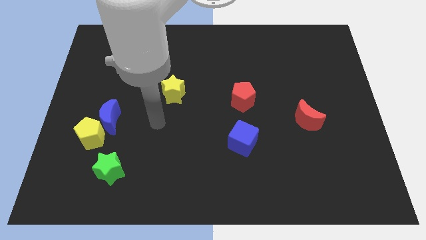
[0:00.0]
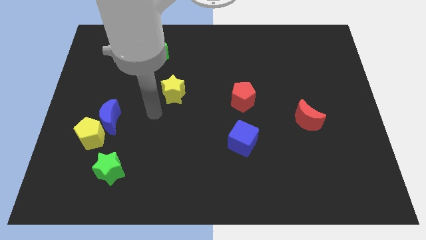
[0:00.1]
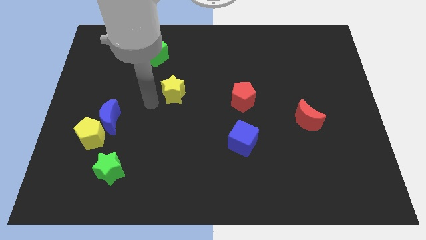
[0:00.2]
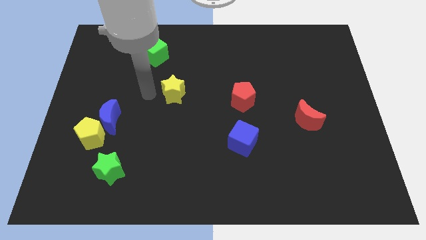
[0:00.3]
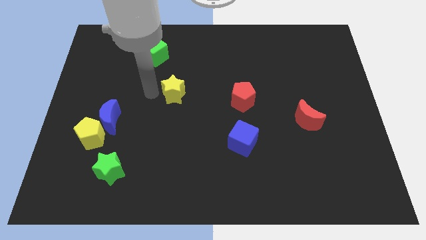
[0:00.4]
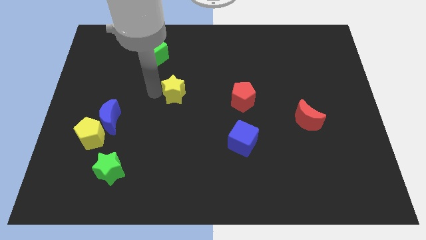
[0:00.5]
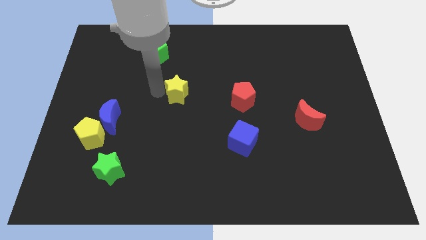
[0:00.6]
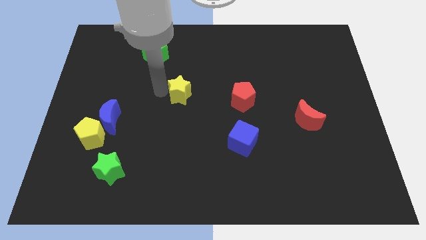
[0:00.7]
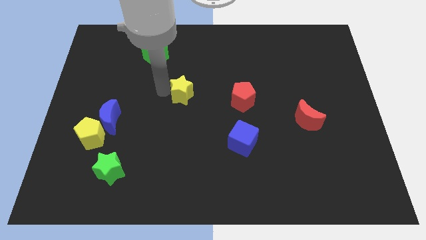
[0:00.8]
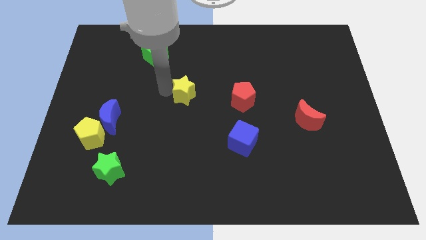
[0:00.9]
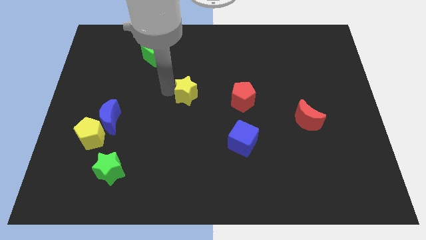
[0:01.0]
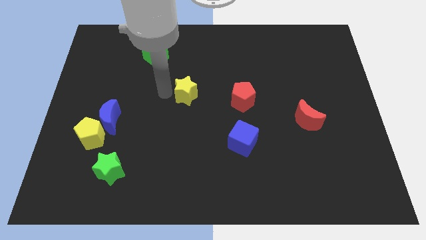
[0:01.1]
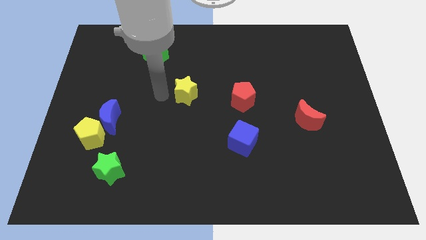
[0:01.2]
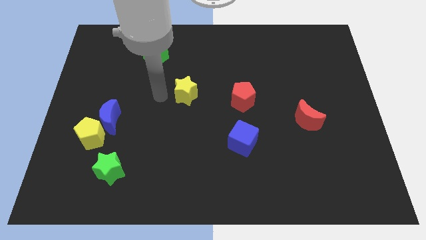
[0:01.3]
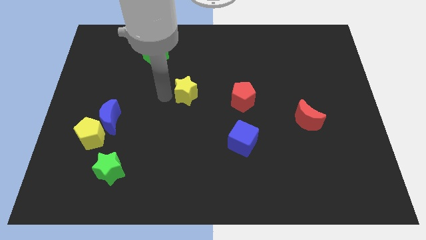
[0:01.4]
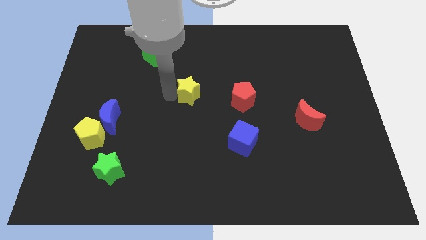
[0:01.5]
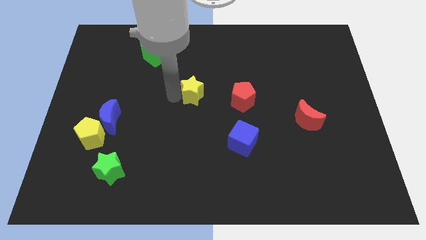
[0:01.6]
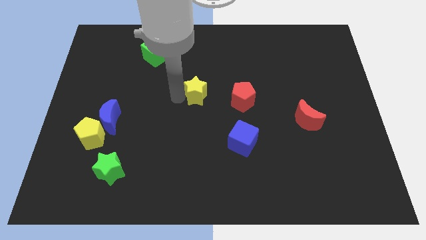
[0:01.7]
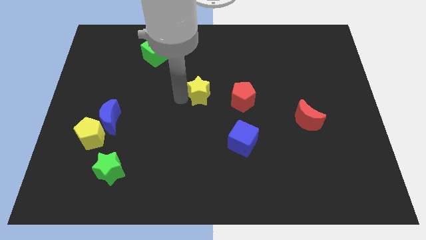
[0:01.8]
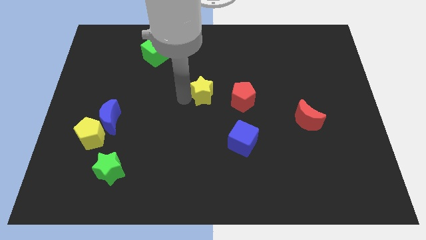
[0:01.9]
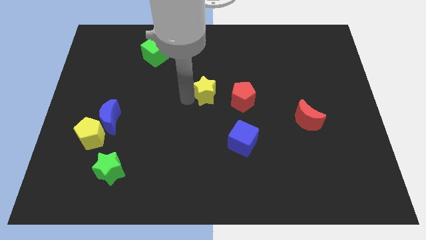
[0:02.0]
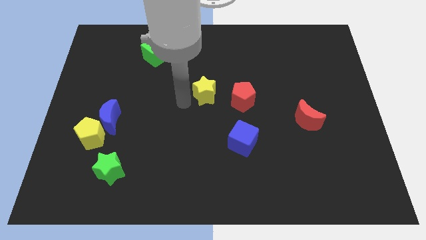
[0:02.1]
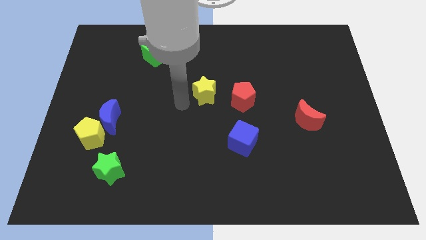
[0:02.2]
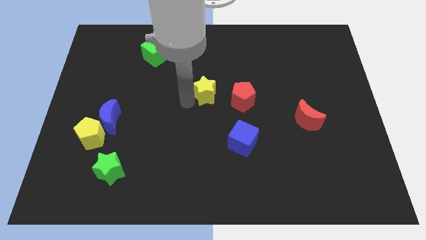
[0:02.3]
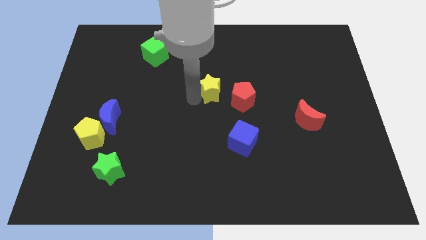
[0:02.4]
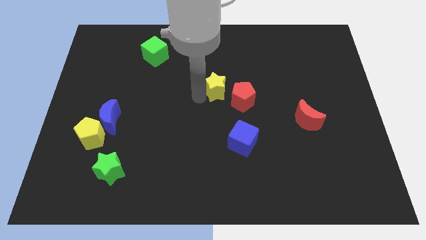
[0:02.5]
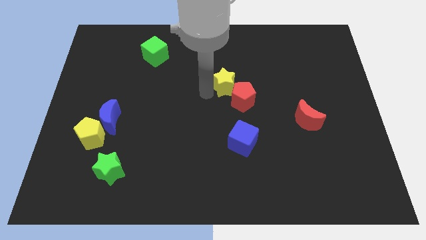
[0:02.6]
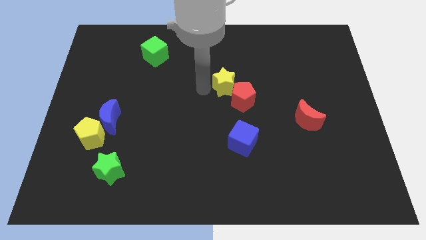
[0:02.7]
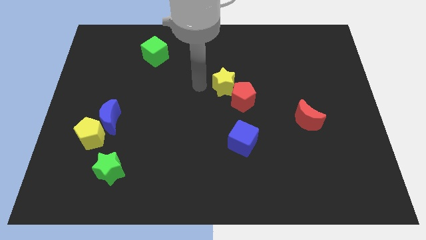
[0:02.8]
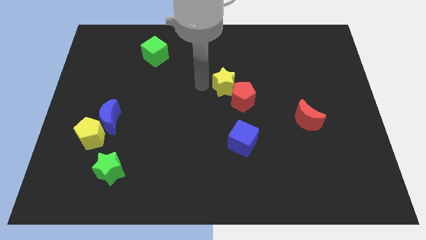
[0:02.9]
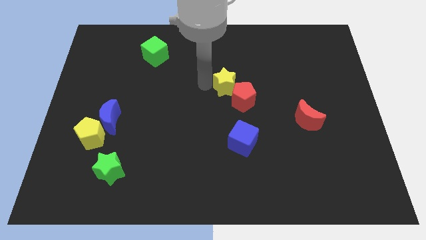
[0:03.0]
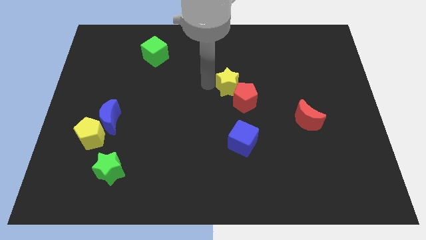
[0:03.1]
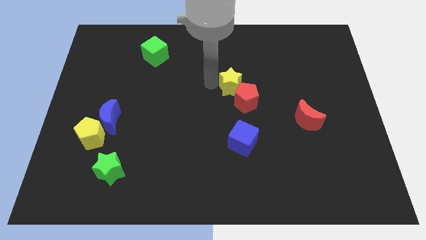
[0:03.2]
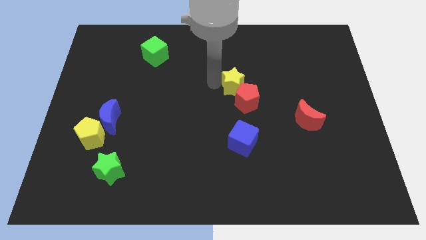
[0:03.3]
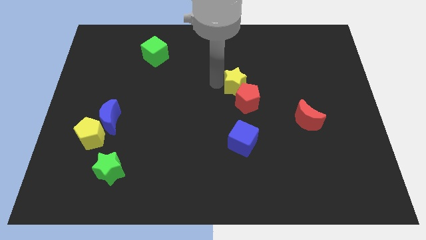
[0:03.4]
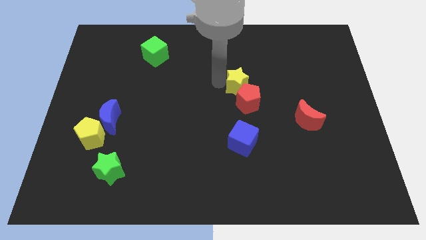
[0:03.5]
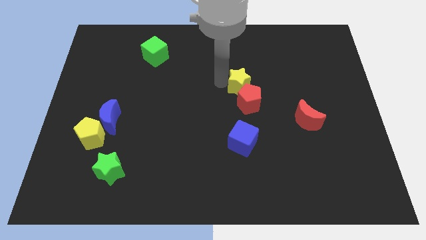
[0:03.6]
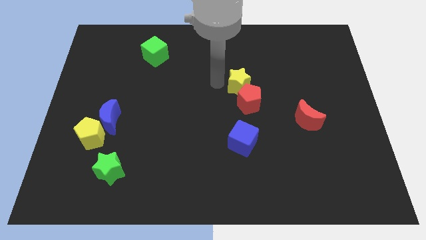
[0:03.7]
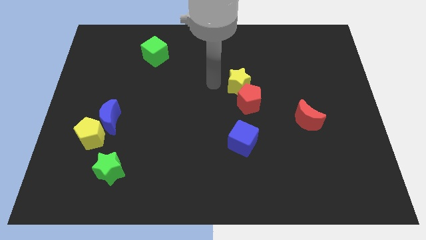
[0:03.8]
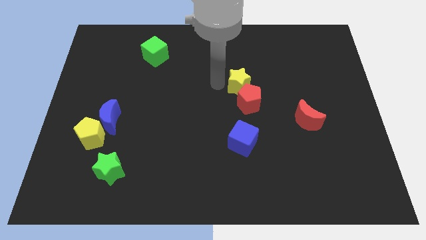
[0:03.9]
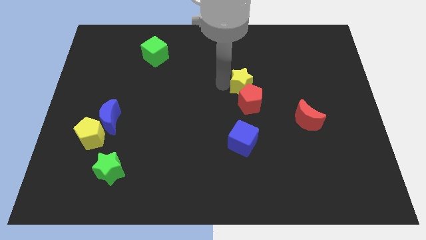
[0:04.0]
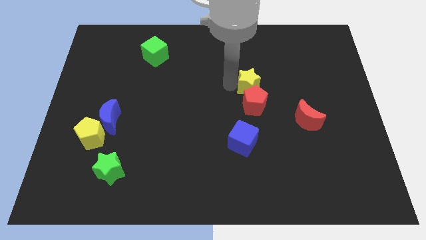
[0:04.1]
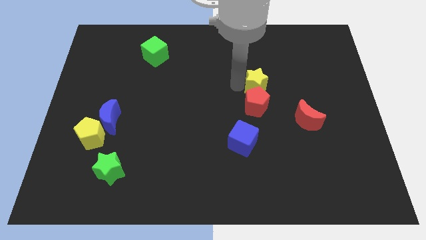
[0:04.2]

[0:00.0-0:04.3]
slide the yellow star to the right

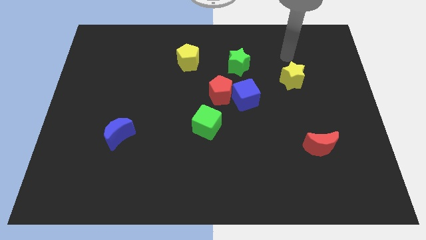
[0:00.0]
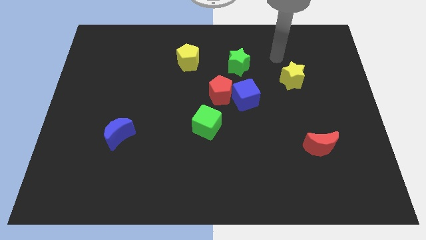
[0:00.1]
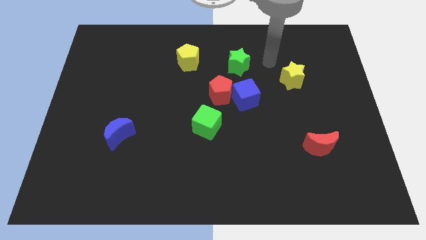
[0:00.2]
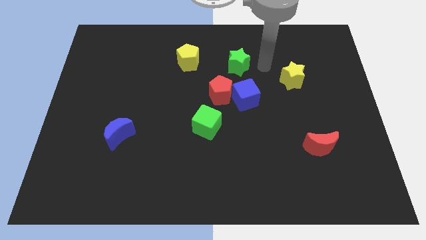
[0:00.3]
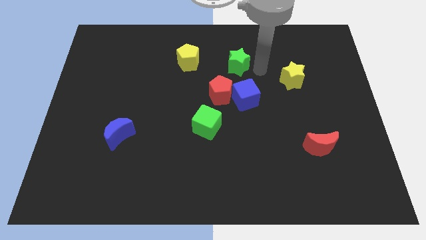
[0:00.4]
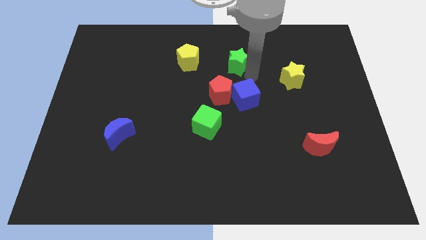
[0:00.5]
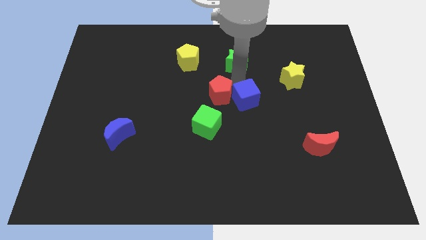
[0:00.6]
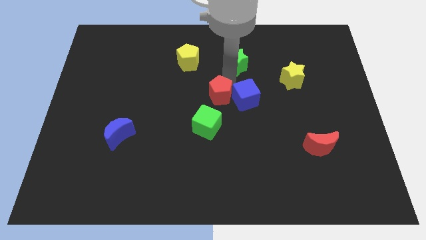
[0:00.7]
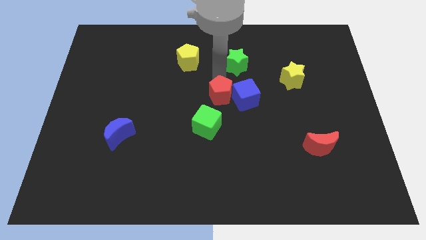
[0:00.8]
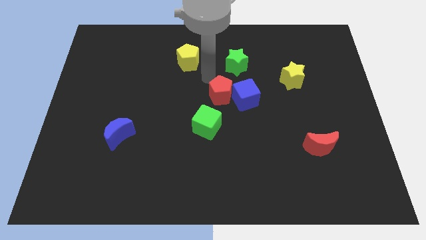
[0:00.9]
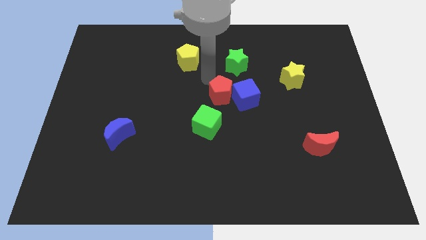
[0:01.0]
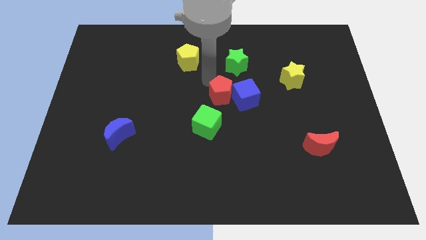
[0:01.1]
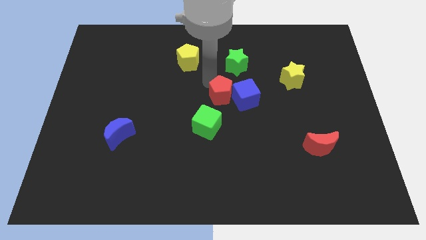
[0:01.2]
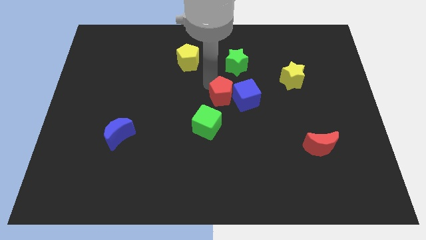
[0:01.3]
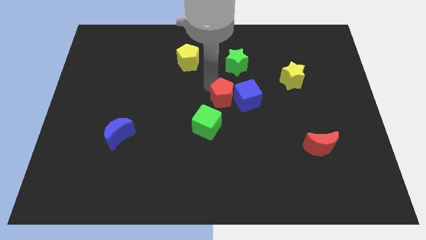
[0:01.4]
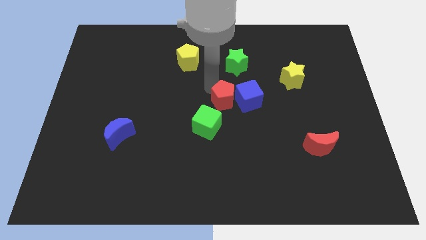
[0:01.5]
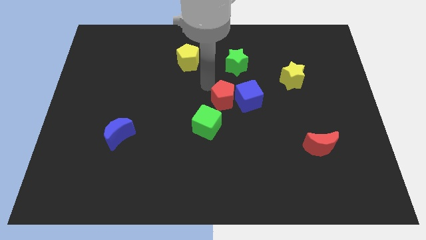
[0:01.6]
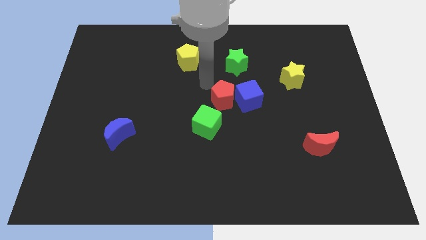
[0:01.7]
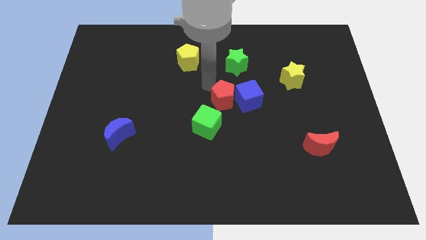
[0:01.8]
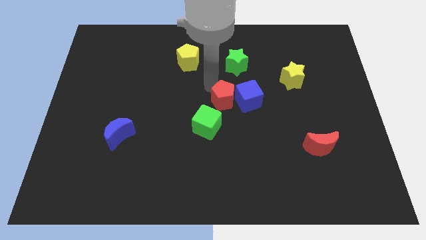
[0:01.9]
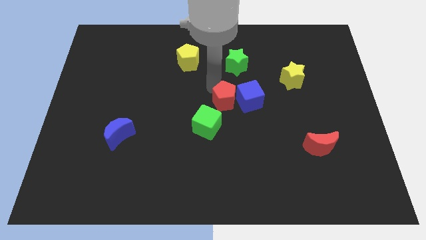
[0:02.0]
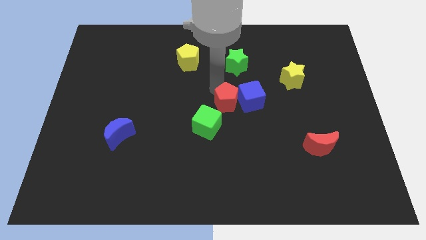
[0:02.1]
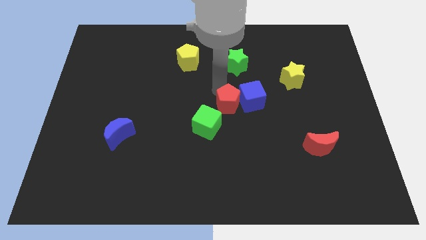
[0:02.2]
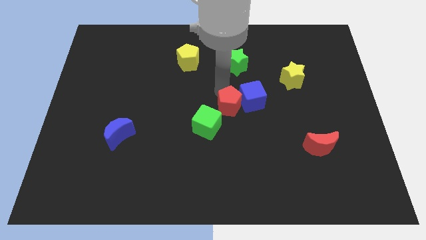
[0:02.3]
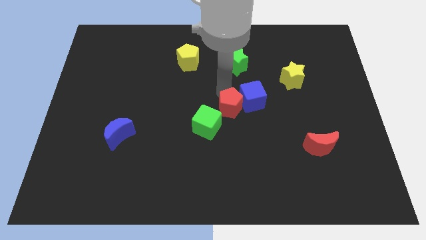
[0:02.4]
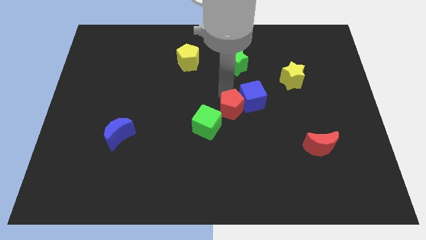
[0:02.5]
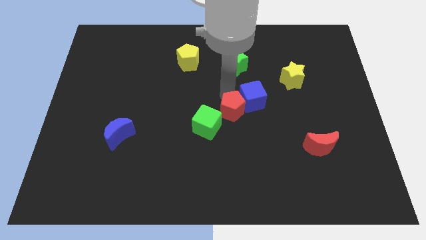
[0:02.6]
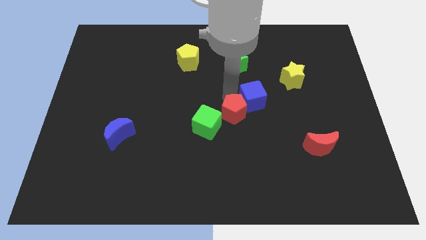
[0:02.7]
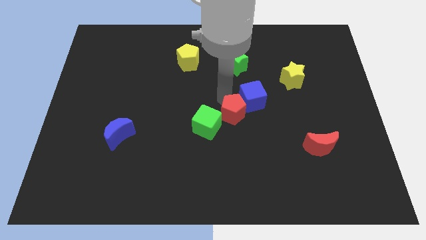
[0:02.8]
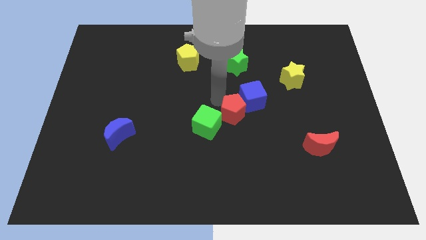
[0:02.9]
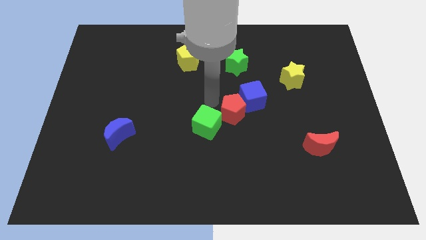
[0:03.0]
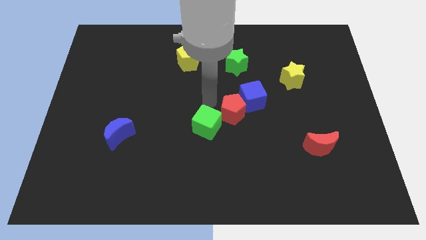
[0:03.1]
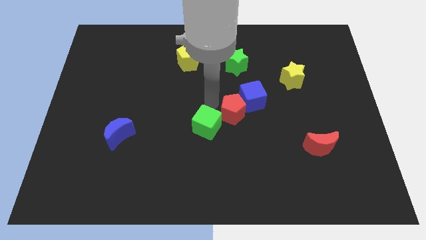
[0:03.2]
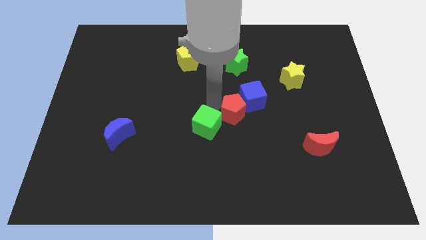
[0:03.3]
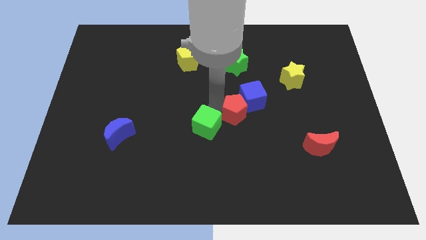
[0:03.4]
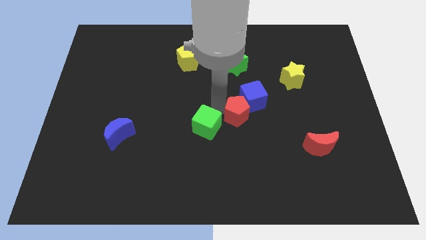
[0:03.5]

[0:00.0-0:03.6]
slightly push the red pentagon downwards and to the right
